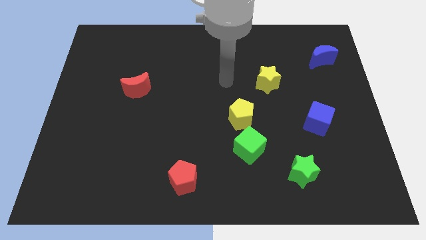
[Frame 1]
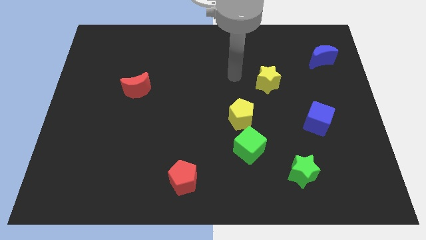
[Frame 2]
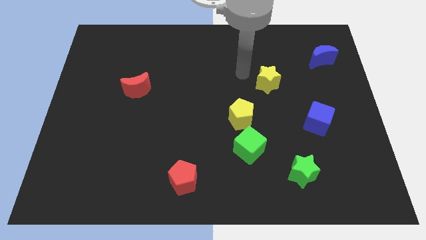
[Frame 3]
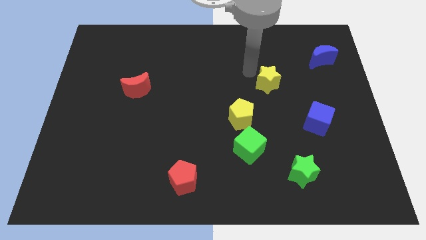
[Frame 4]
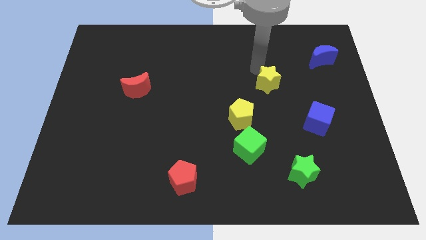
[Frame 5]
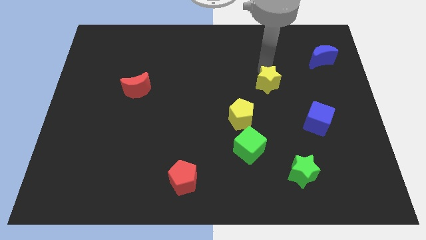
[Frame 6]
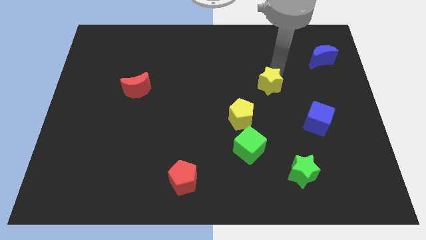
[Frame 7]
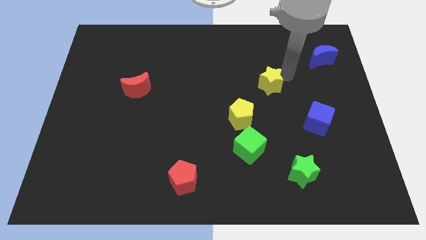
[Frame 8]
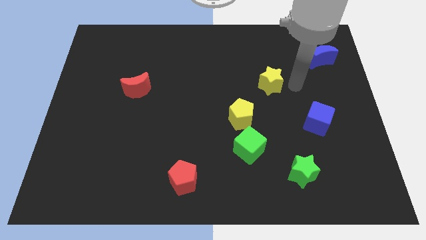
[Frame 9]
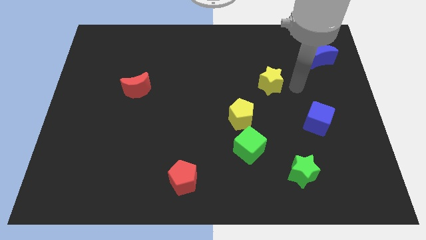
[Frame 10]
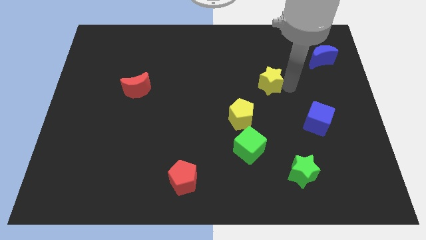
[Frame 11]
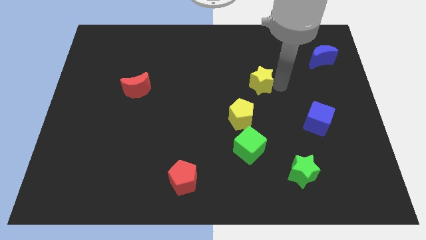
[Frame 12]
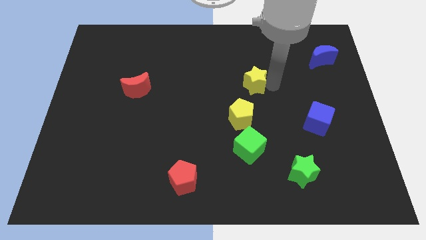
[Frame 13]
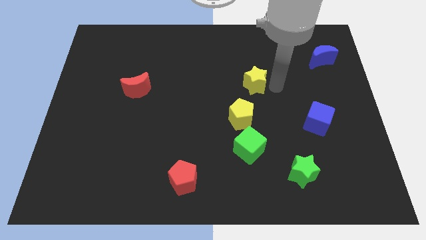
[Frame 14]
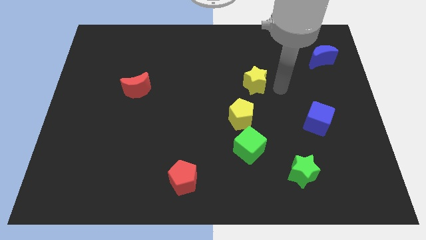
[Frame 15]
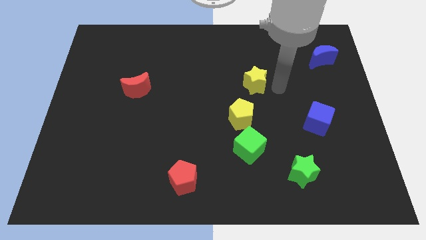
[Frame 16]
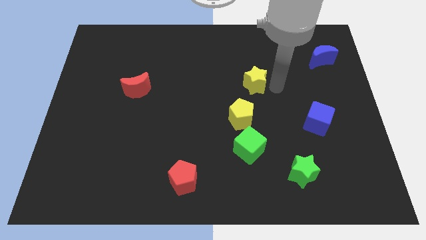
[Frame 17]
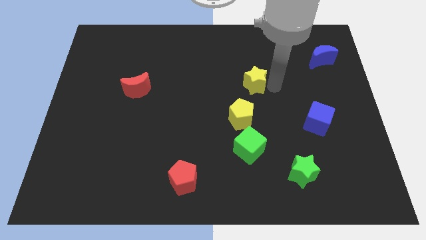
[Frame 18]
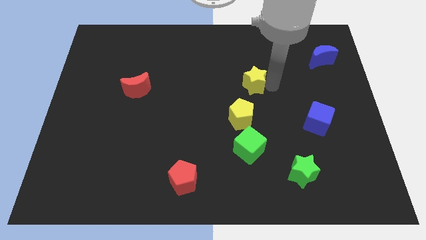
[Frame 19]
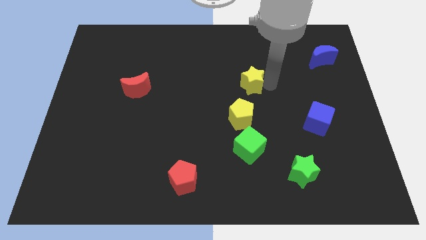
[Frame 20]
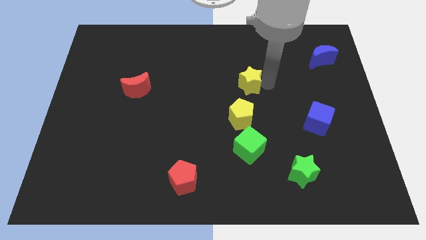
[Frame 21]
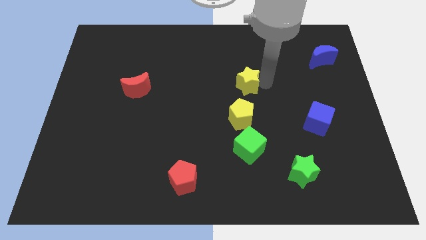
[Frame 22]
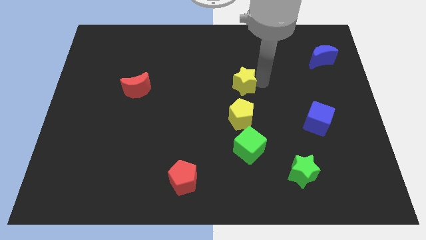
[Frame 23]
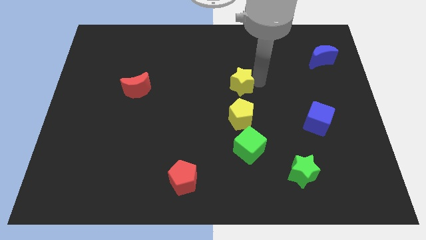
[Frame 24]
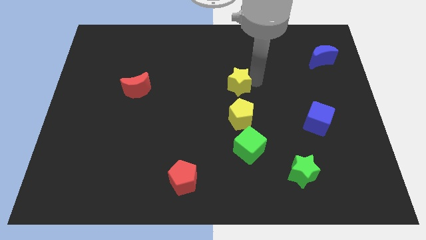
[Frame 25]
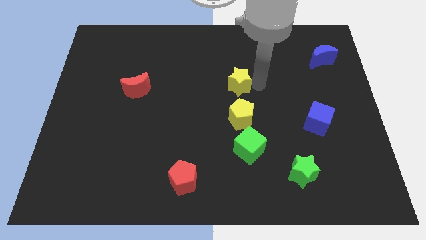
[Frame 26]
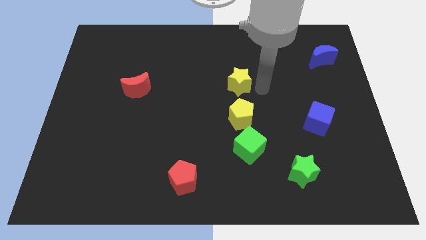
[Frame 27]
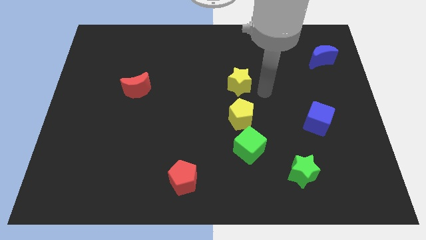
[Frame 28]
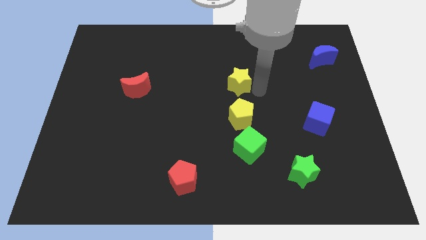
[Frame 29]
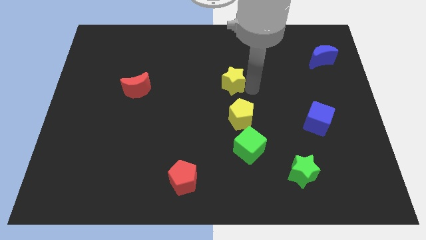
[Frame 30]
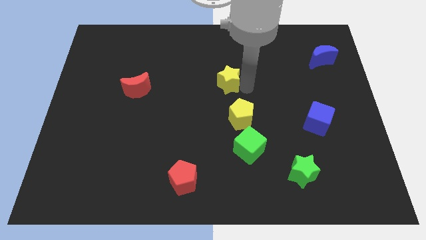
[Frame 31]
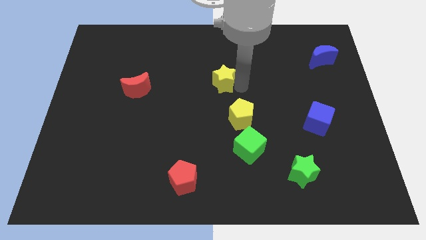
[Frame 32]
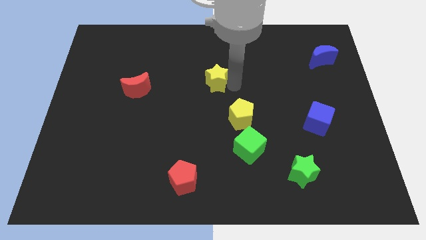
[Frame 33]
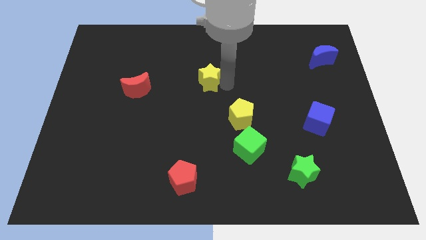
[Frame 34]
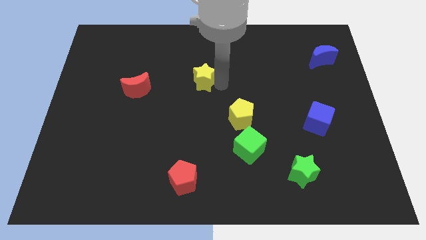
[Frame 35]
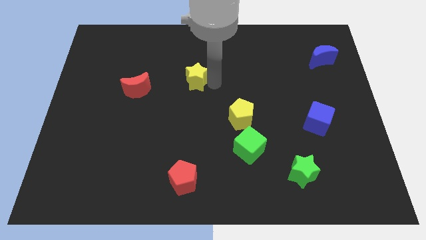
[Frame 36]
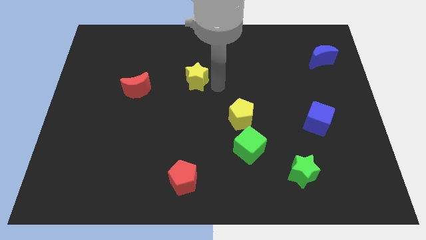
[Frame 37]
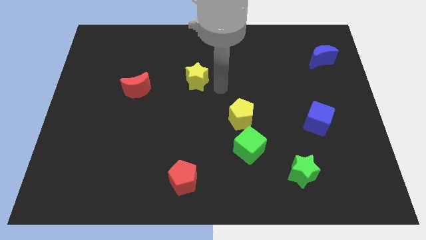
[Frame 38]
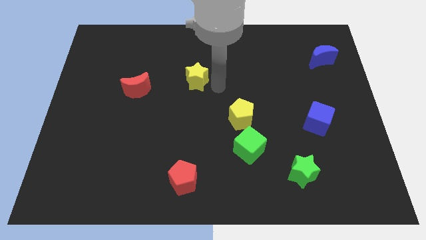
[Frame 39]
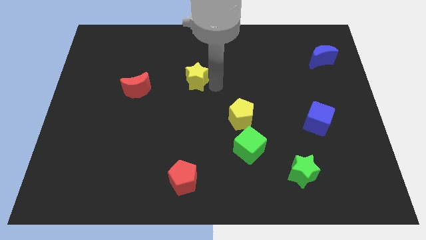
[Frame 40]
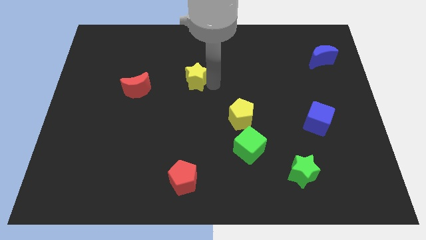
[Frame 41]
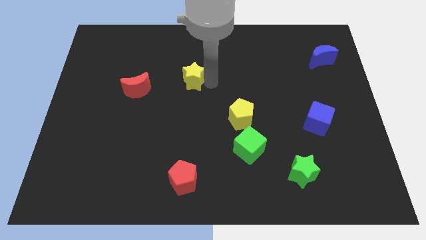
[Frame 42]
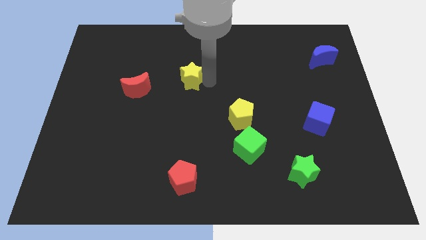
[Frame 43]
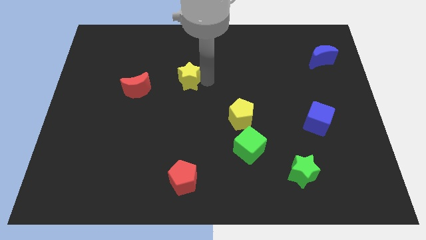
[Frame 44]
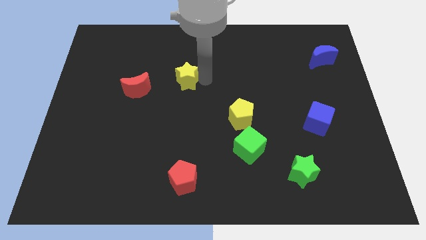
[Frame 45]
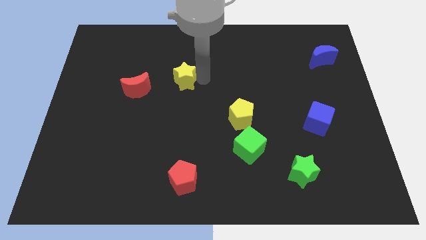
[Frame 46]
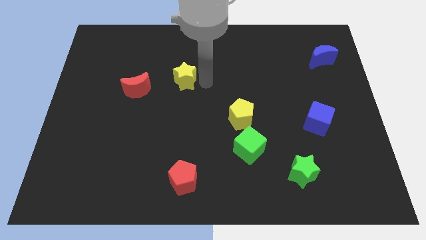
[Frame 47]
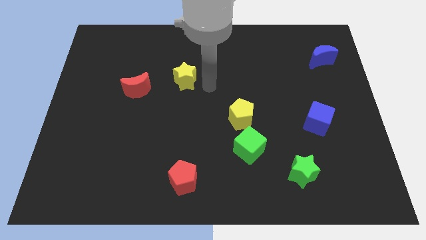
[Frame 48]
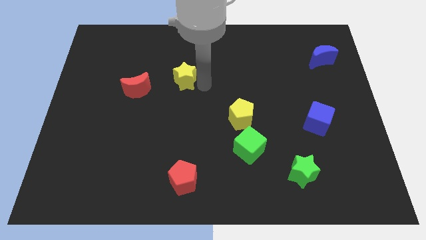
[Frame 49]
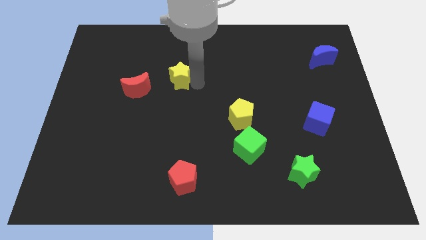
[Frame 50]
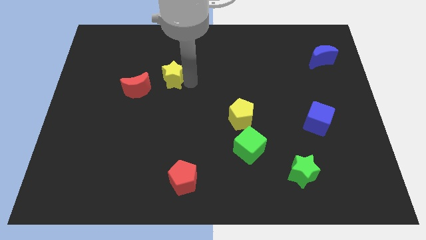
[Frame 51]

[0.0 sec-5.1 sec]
move the yellow star to the top right side of the red moon

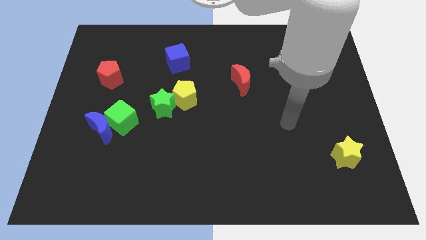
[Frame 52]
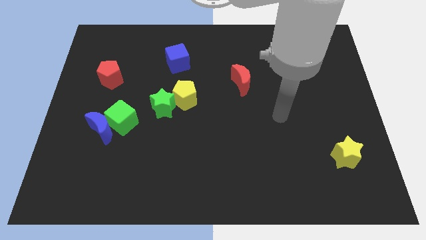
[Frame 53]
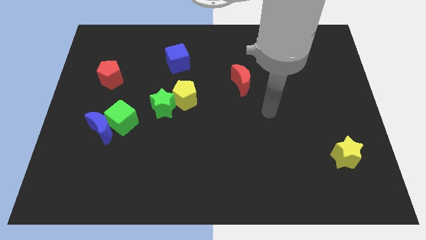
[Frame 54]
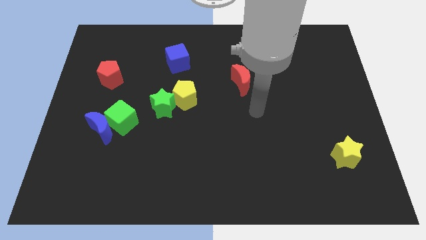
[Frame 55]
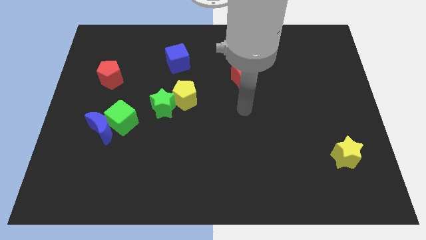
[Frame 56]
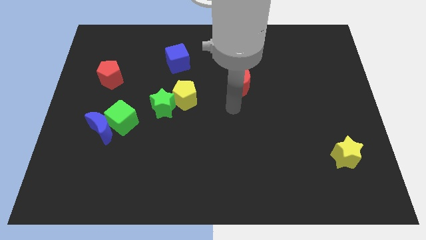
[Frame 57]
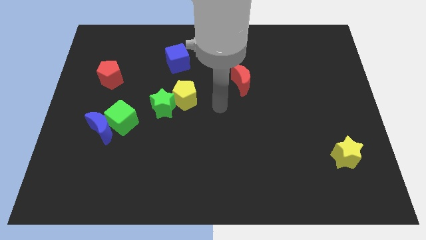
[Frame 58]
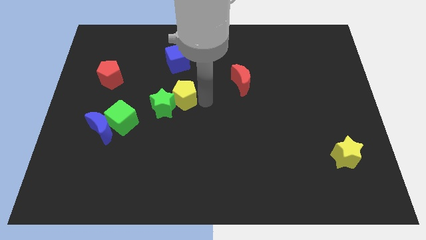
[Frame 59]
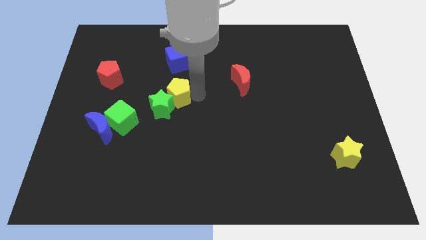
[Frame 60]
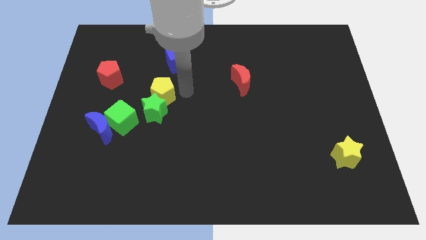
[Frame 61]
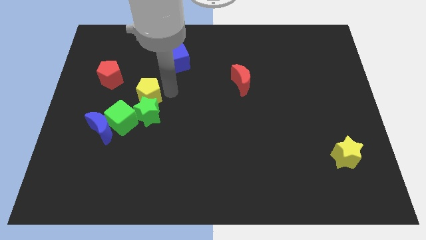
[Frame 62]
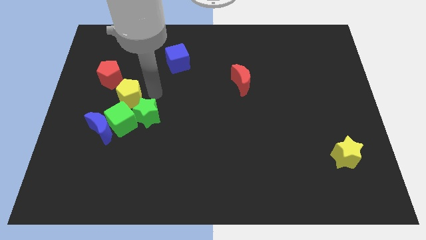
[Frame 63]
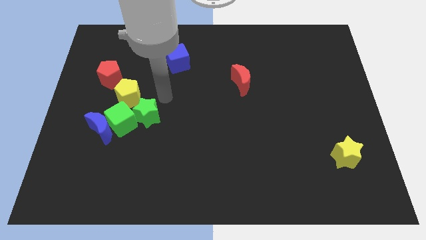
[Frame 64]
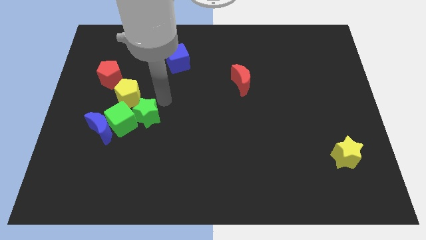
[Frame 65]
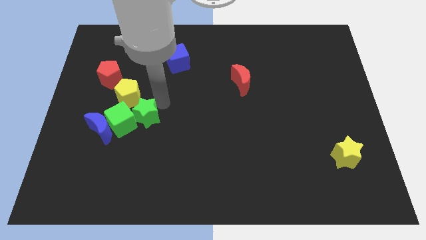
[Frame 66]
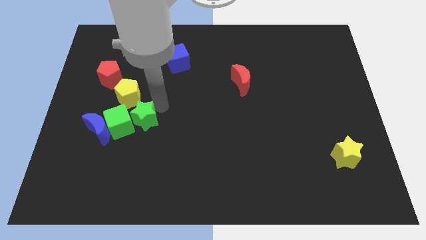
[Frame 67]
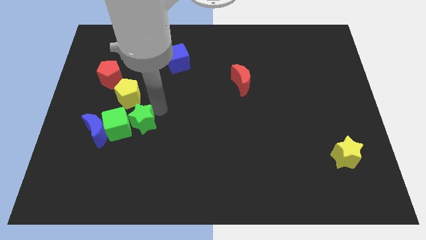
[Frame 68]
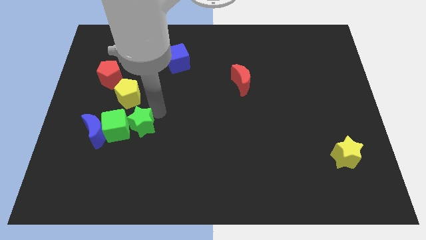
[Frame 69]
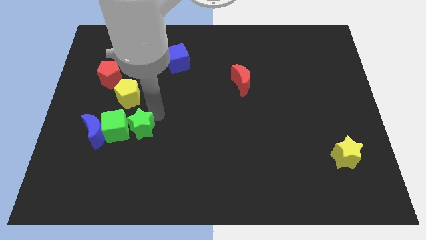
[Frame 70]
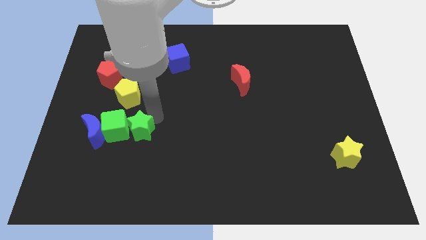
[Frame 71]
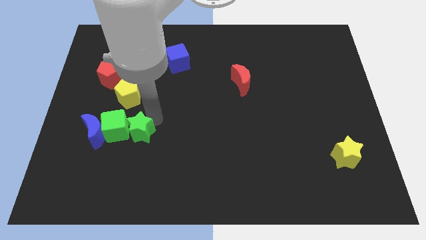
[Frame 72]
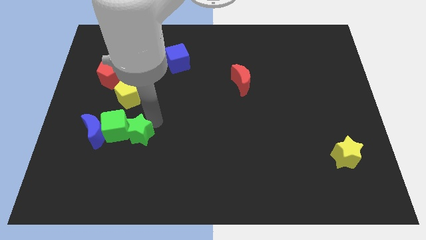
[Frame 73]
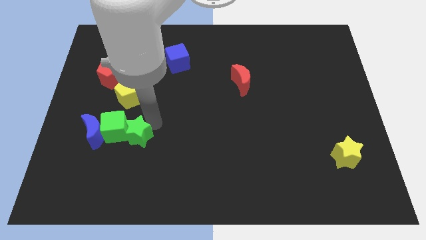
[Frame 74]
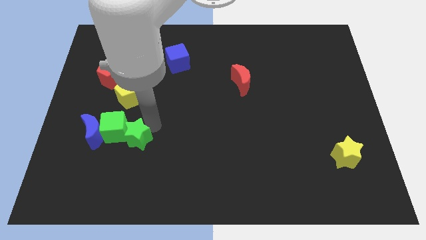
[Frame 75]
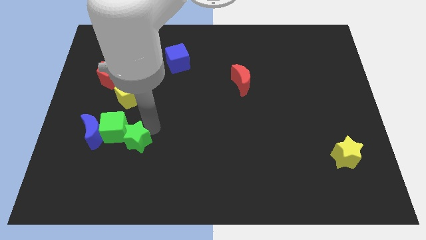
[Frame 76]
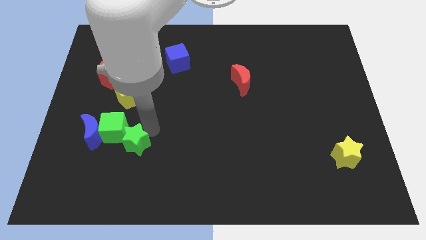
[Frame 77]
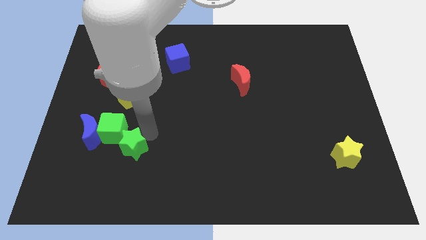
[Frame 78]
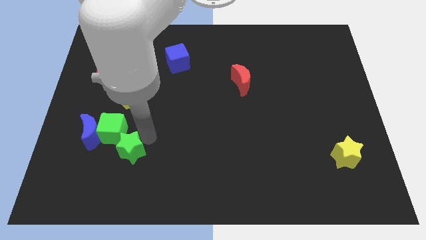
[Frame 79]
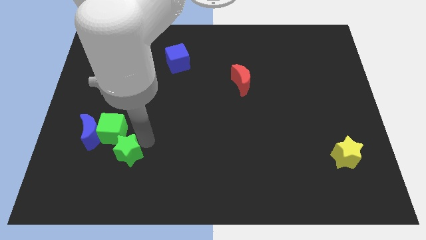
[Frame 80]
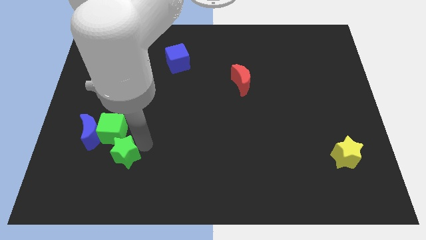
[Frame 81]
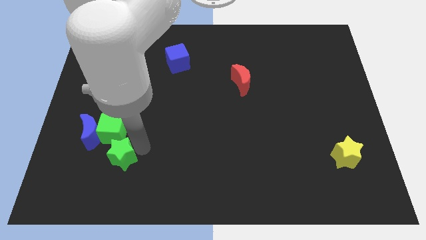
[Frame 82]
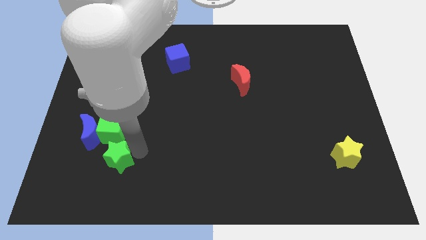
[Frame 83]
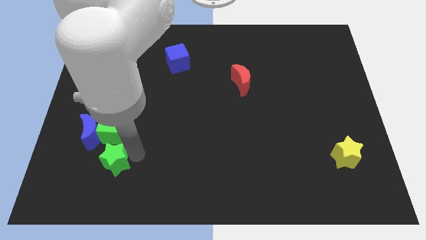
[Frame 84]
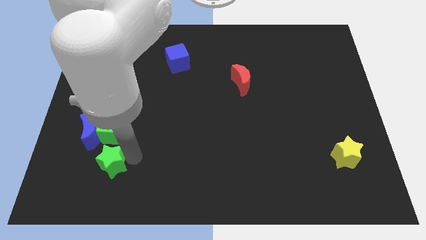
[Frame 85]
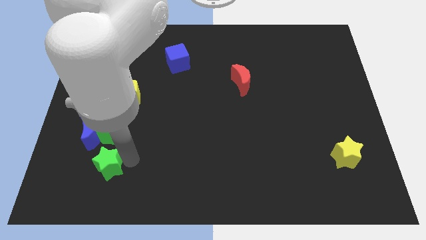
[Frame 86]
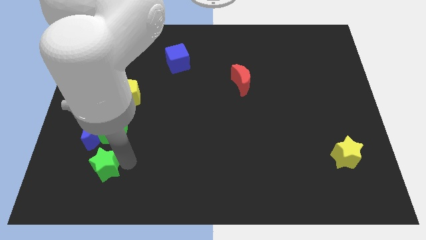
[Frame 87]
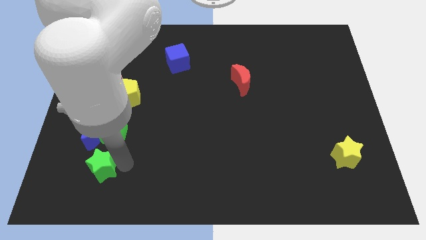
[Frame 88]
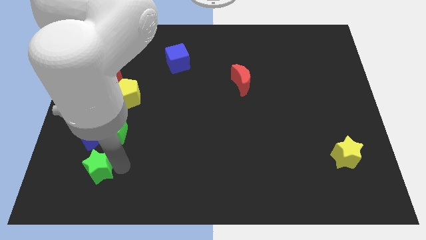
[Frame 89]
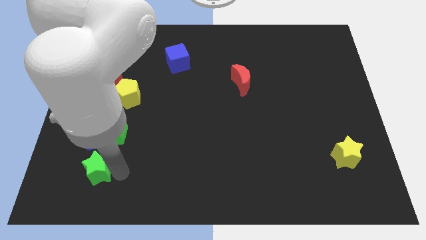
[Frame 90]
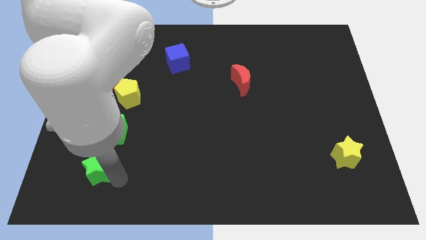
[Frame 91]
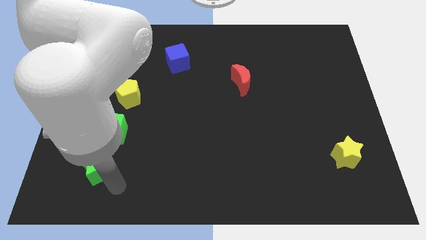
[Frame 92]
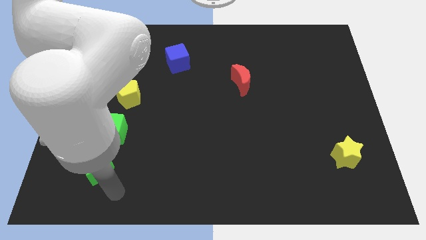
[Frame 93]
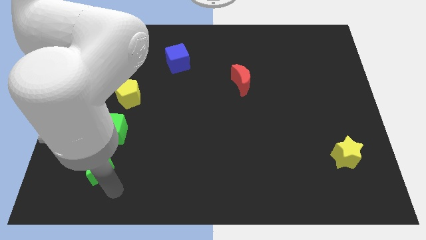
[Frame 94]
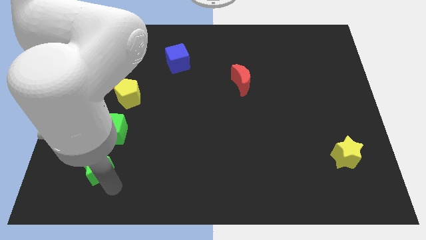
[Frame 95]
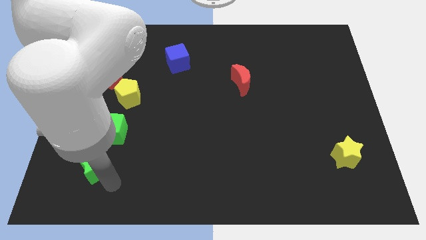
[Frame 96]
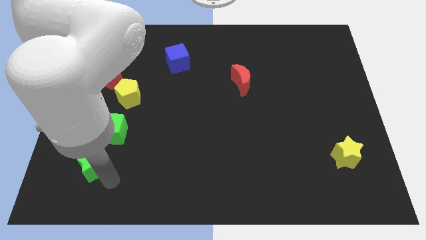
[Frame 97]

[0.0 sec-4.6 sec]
move the green star to the bottom left of the green cube
